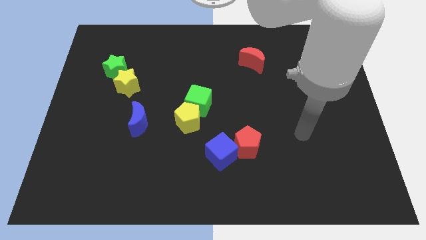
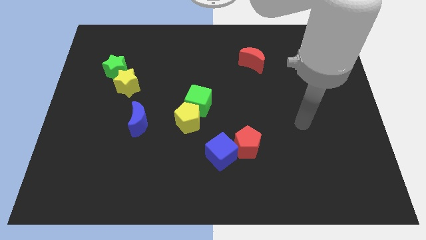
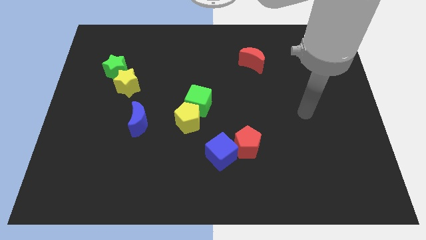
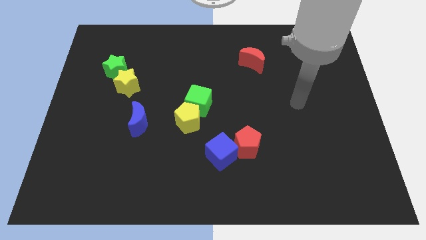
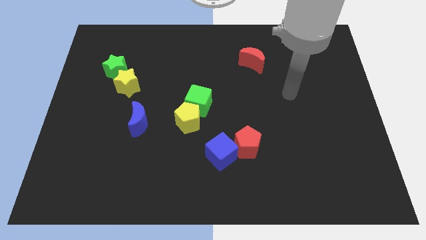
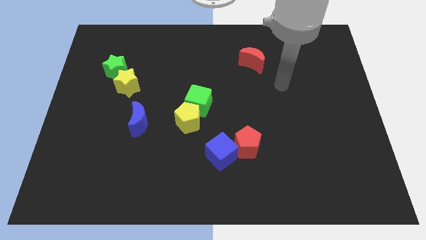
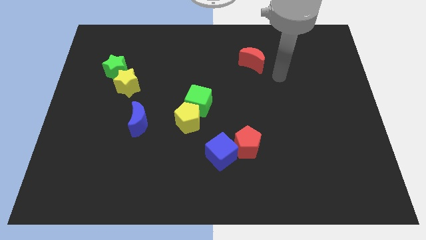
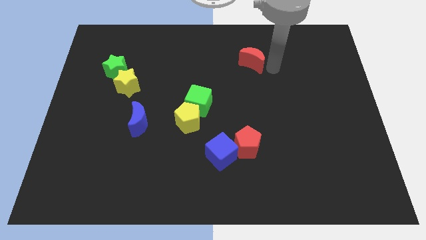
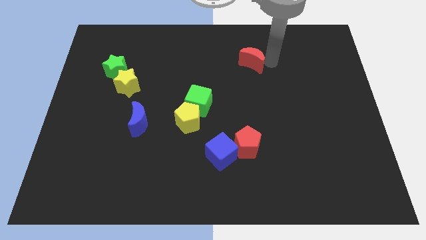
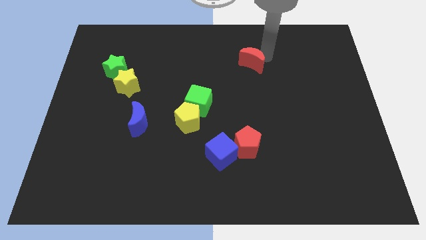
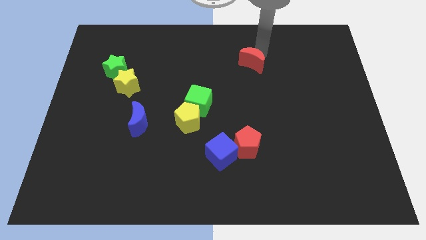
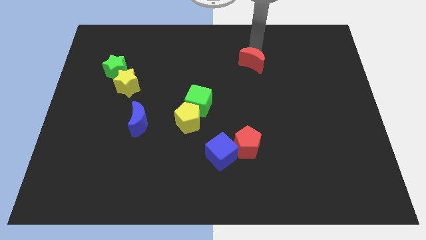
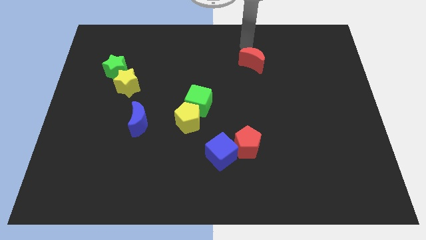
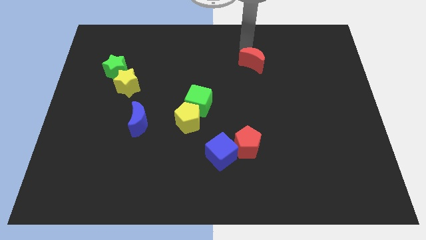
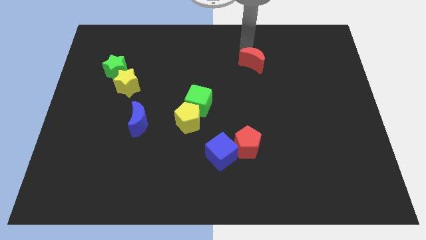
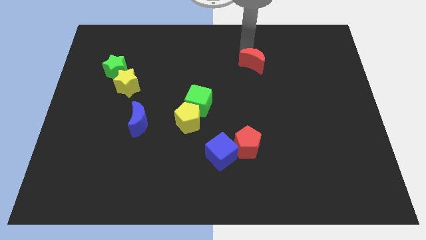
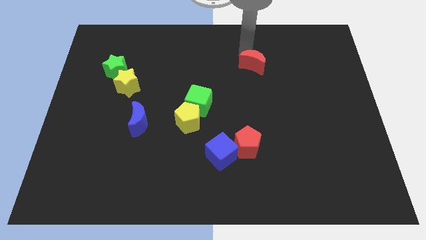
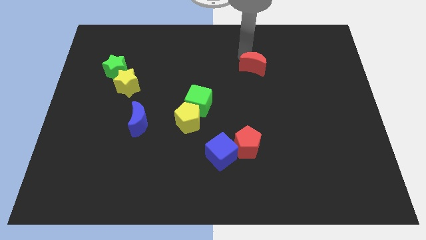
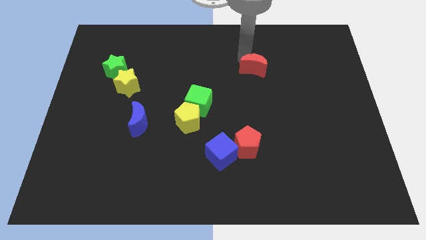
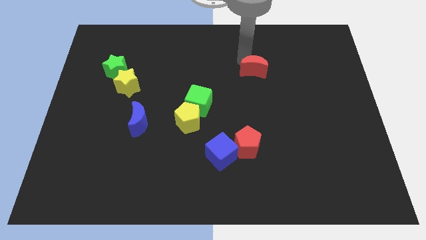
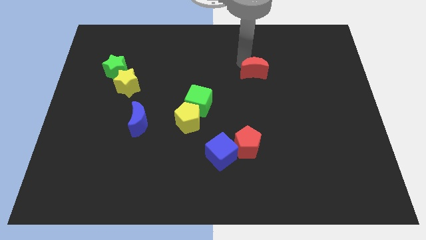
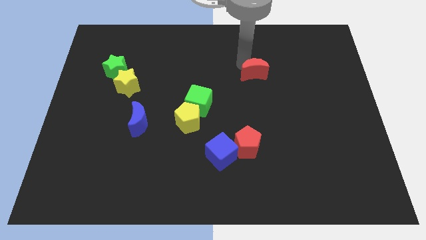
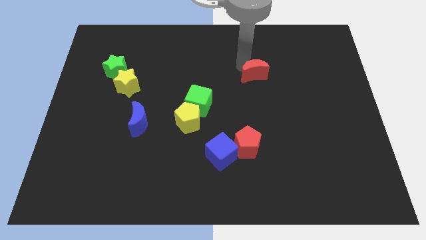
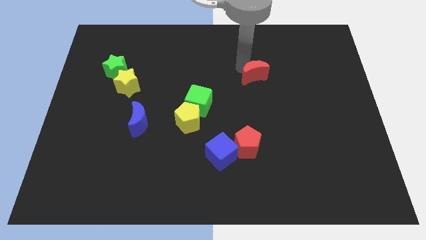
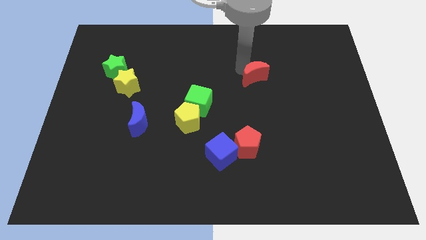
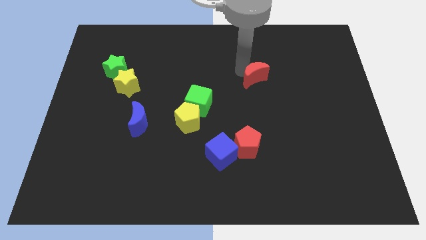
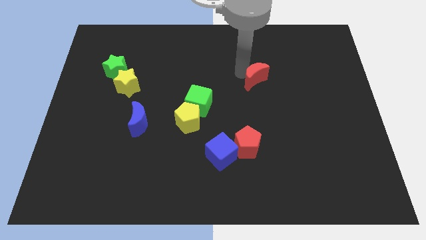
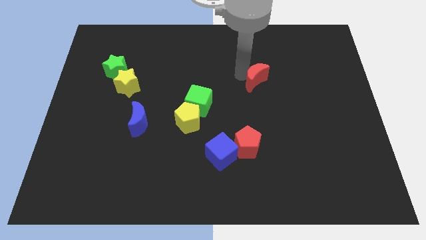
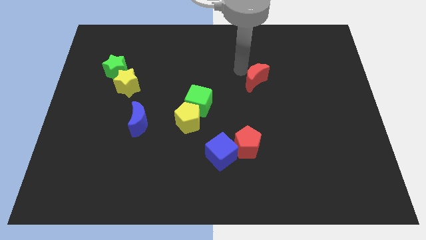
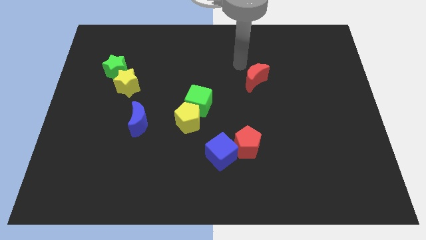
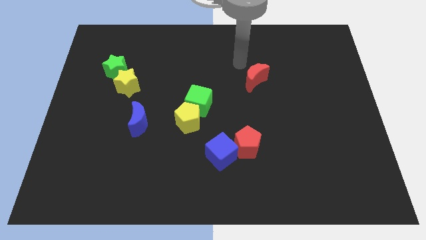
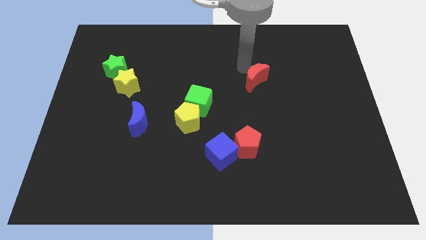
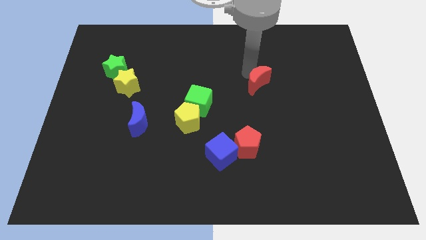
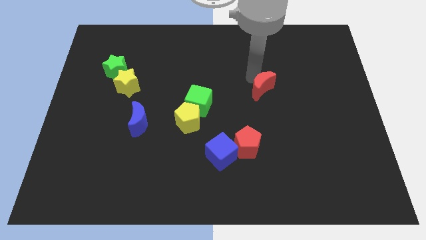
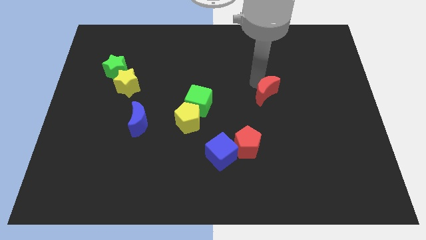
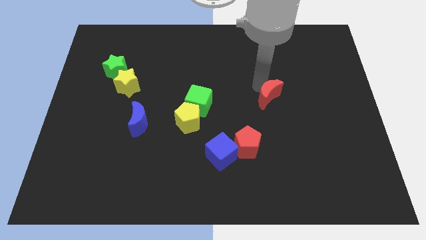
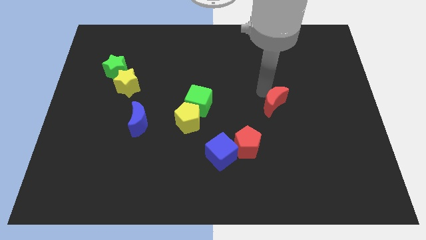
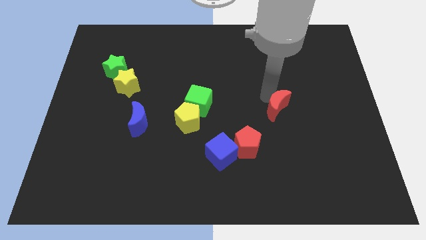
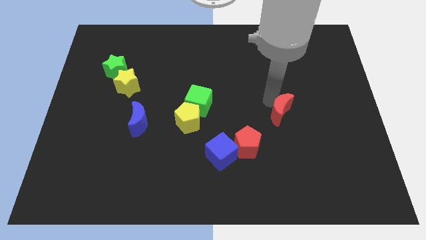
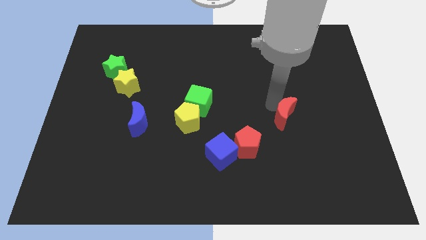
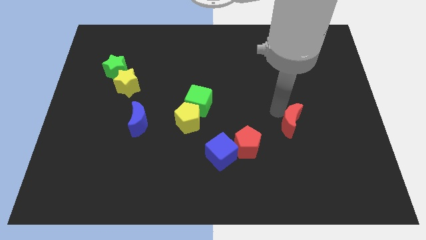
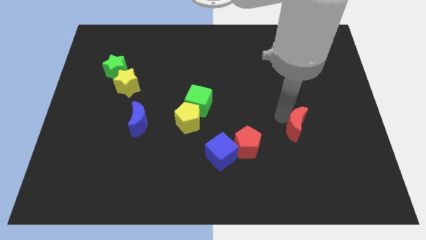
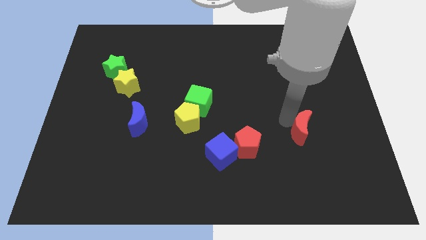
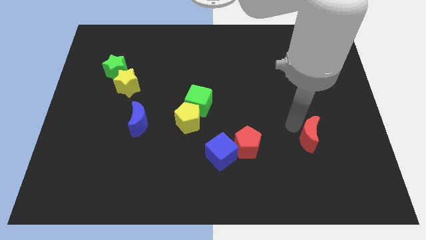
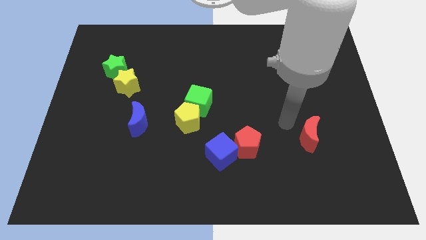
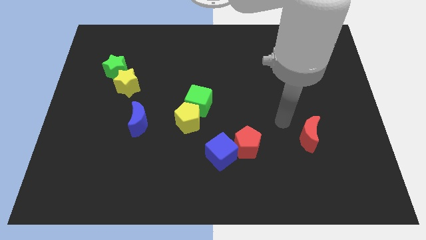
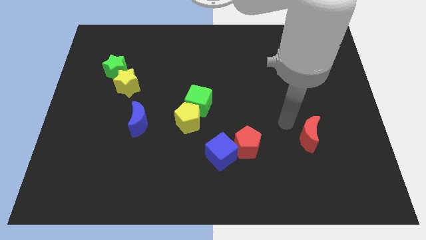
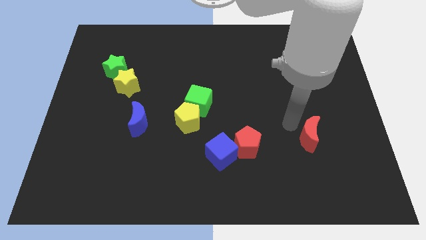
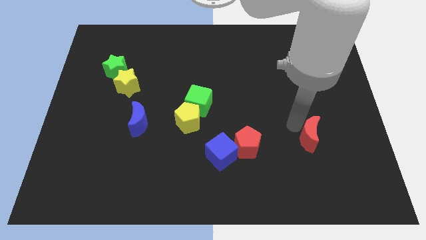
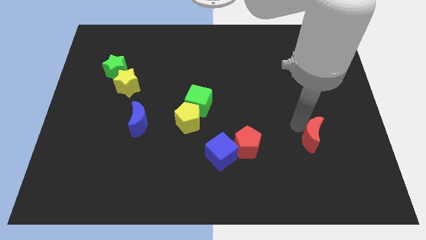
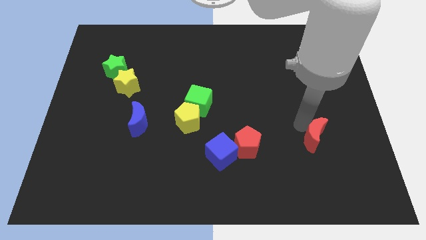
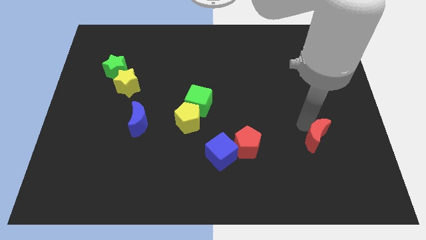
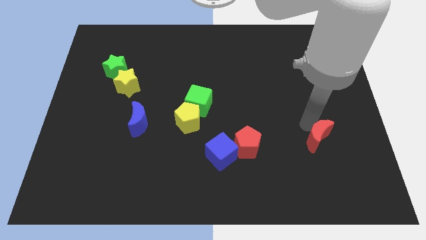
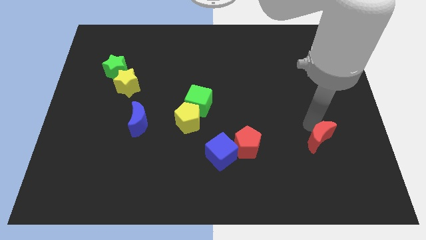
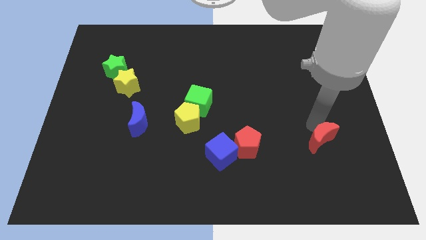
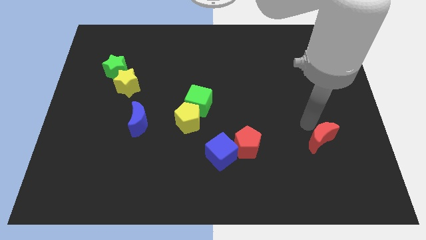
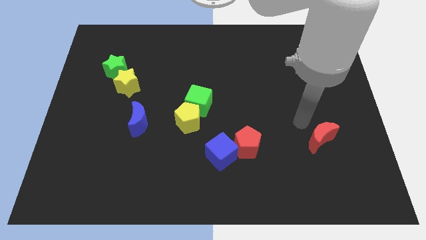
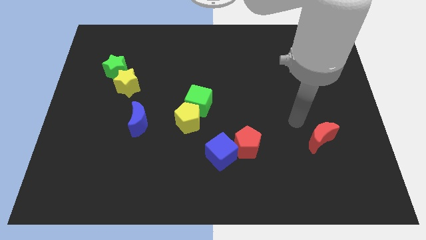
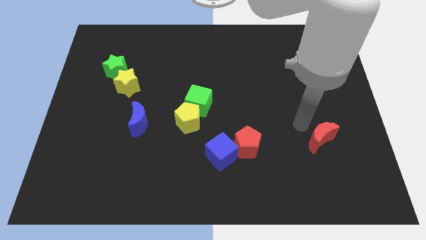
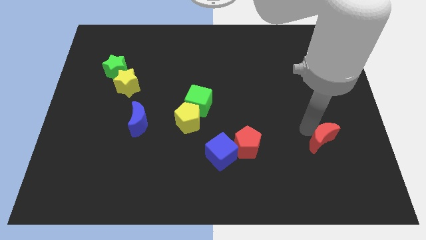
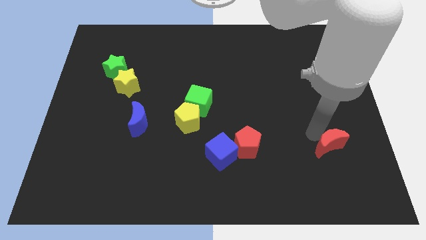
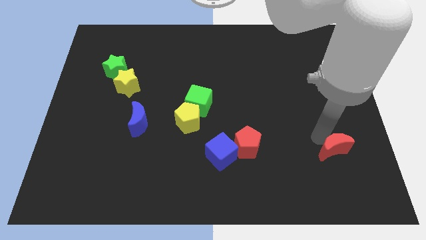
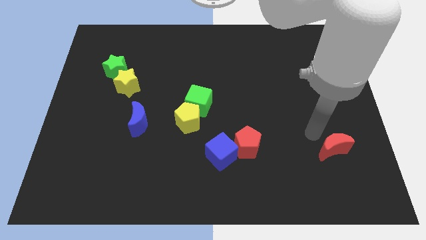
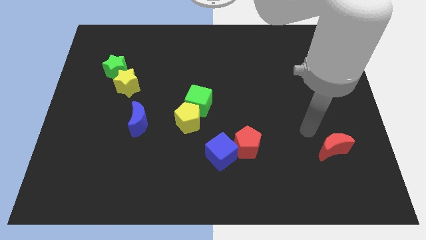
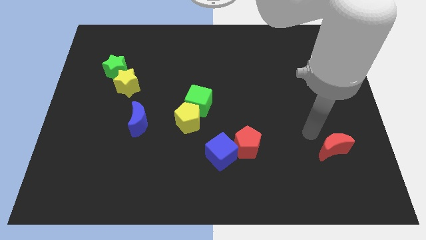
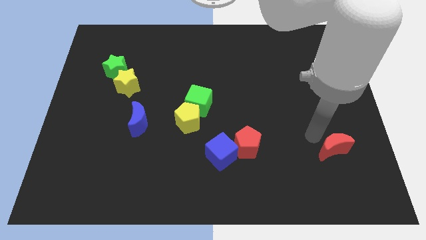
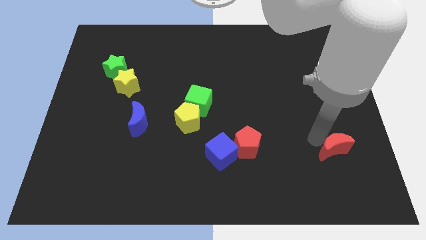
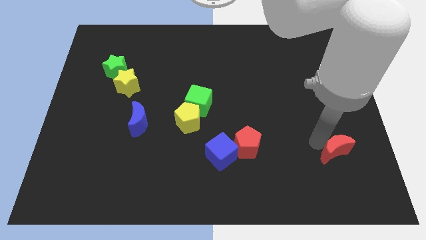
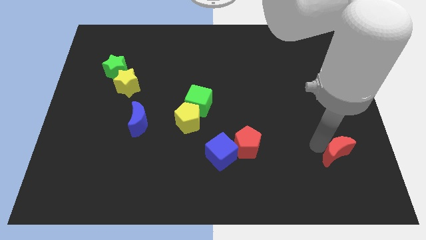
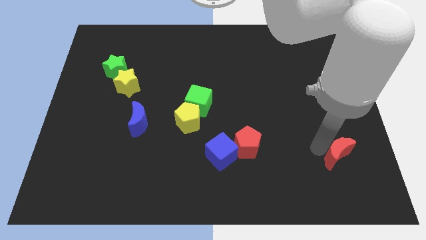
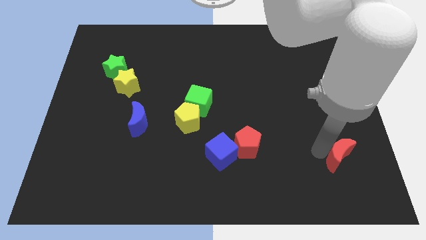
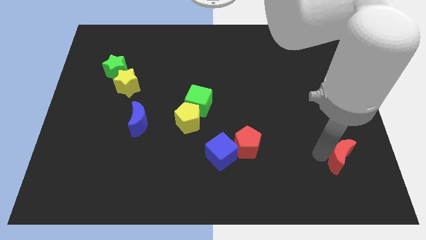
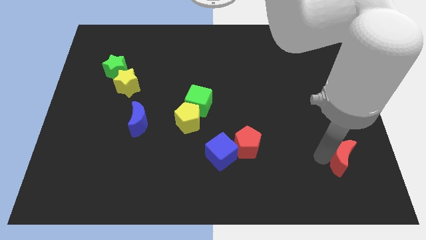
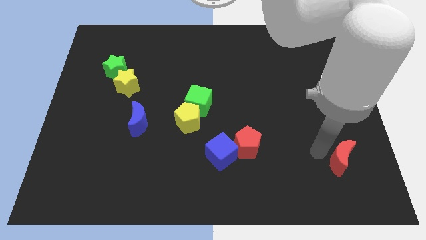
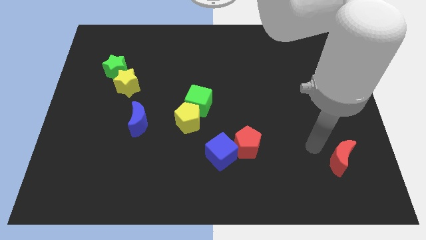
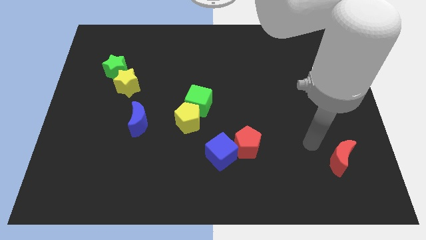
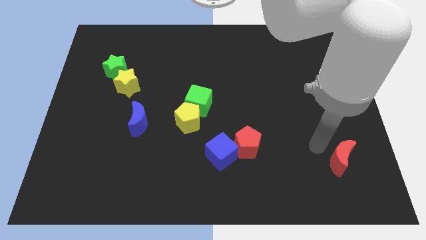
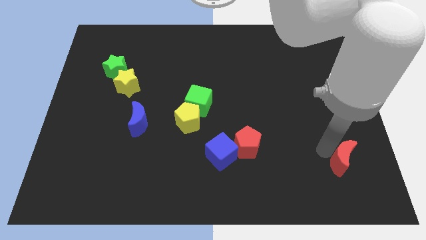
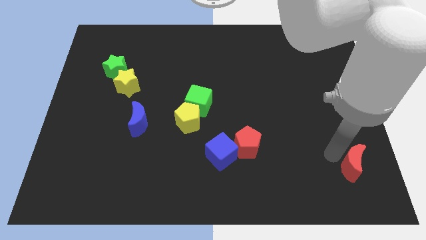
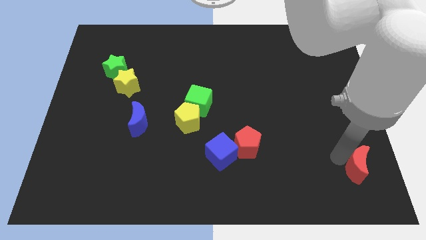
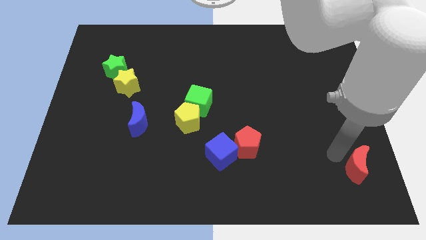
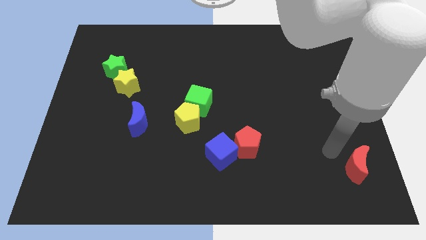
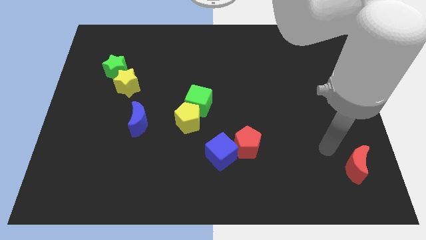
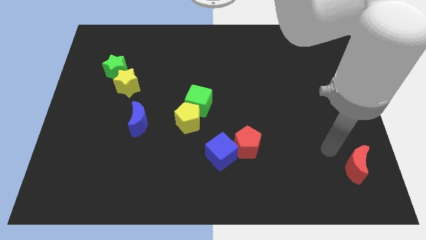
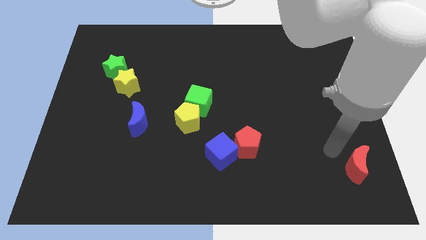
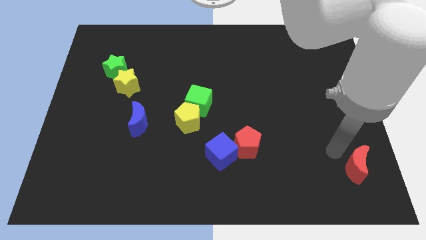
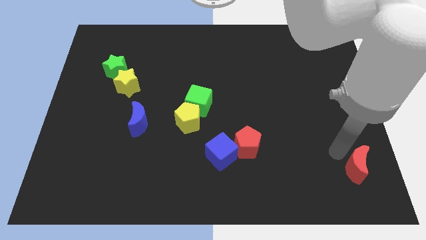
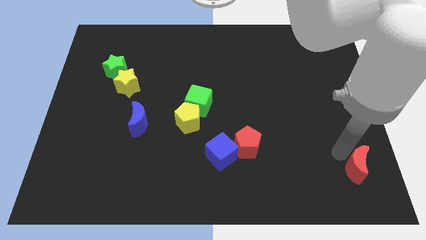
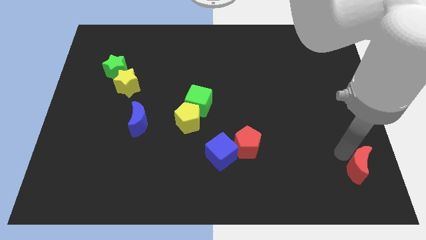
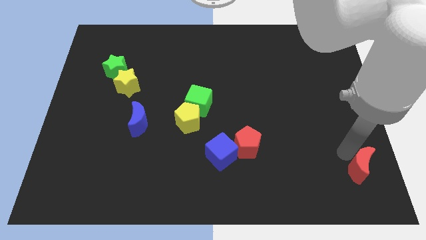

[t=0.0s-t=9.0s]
push the red moon to the bottom right of the board
